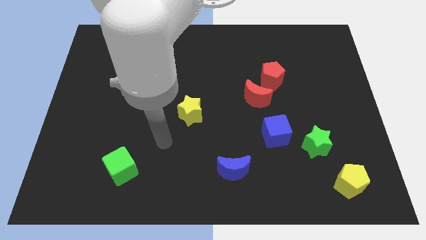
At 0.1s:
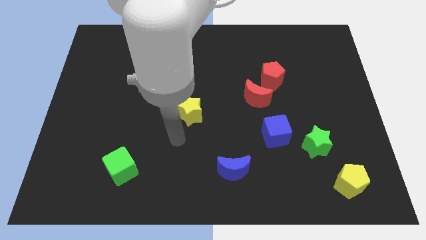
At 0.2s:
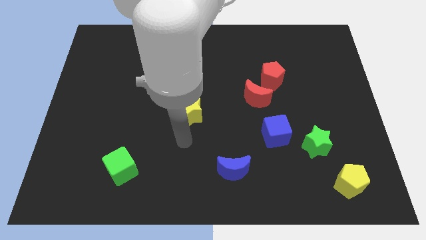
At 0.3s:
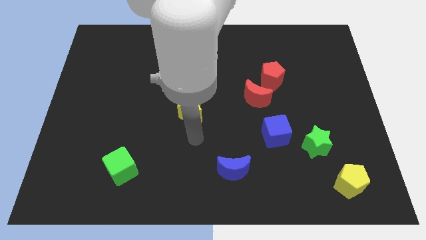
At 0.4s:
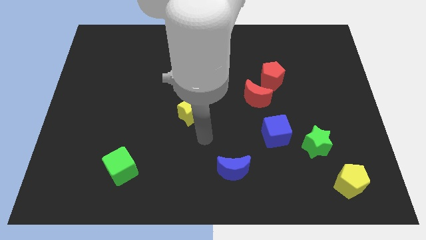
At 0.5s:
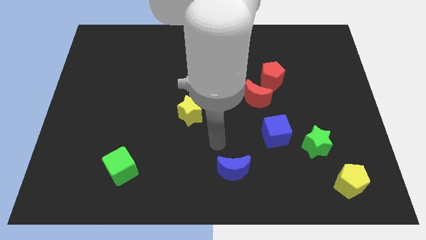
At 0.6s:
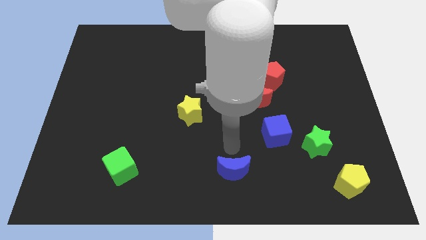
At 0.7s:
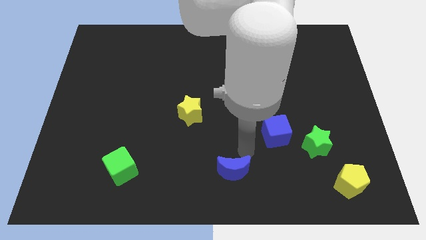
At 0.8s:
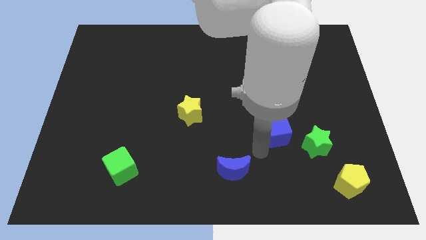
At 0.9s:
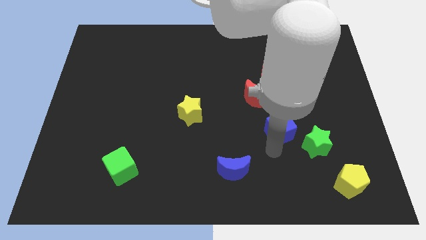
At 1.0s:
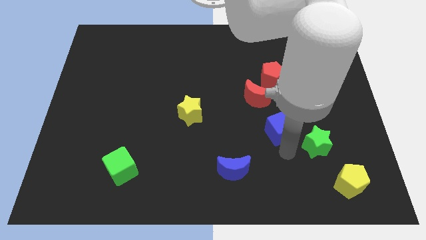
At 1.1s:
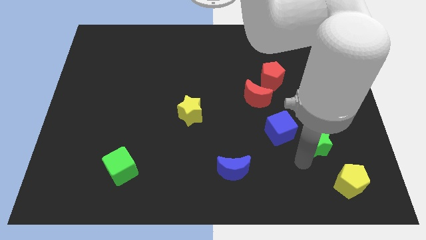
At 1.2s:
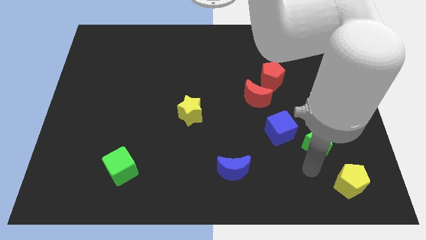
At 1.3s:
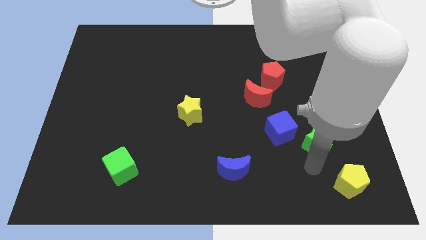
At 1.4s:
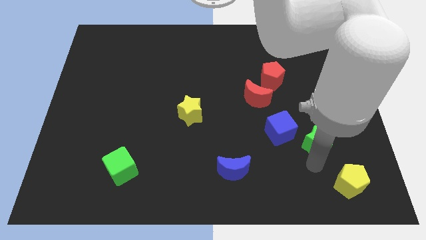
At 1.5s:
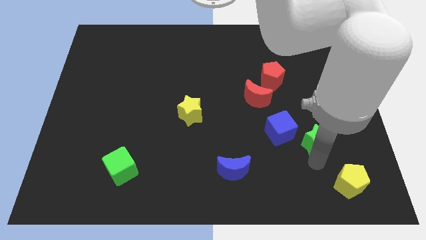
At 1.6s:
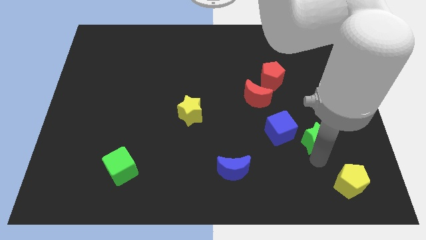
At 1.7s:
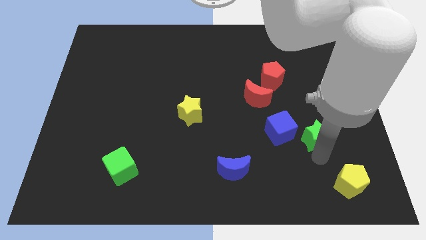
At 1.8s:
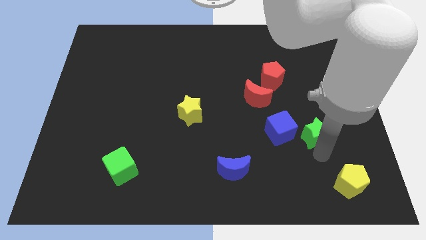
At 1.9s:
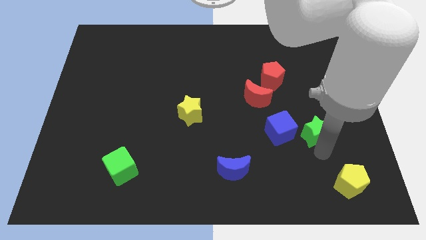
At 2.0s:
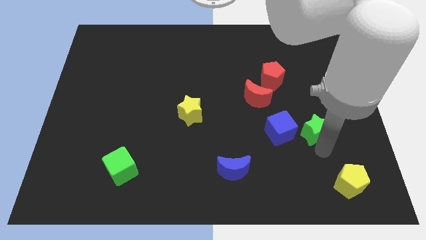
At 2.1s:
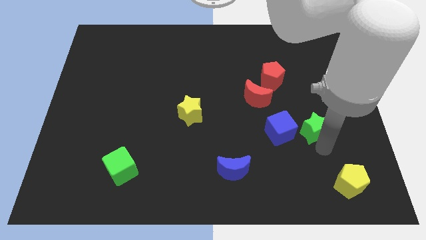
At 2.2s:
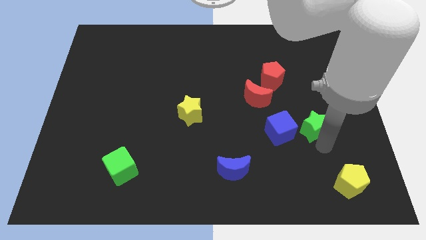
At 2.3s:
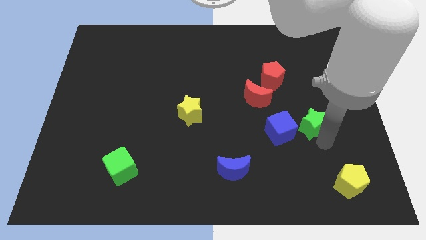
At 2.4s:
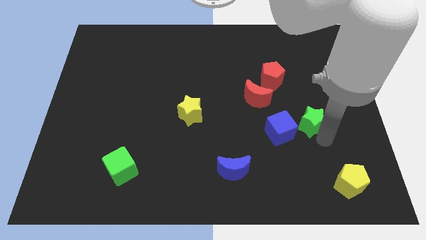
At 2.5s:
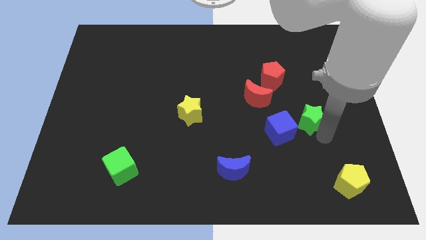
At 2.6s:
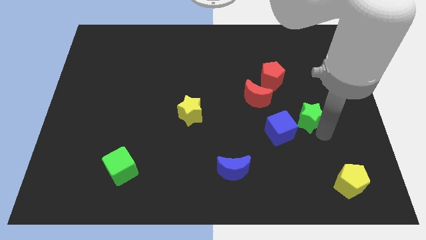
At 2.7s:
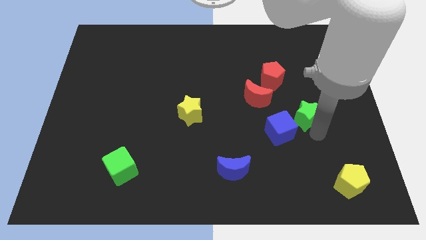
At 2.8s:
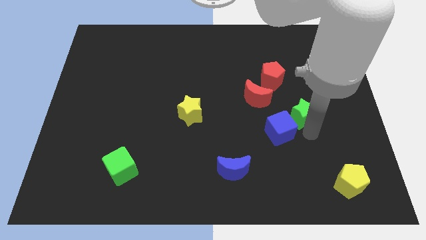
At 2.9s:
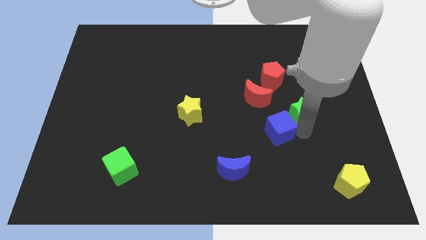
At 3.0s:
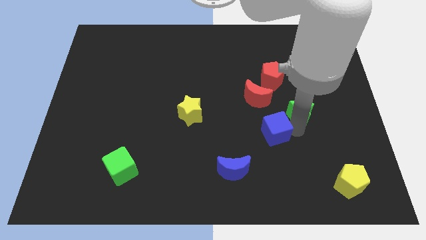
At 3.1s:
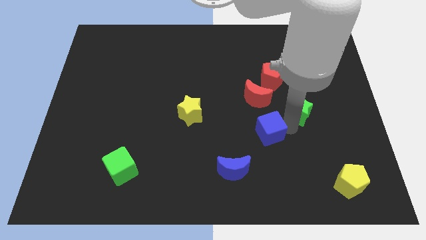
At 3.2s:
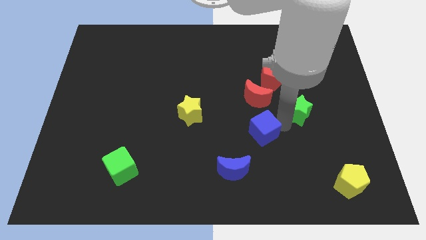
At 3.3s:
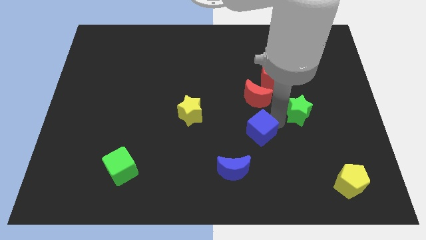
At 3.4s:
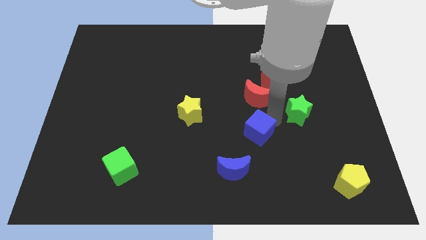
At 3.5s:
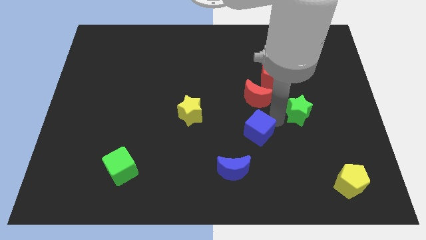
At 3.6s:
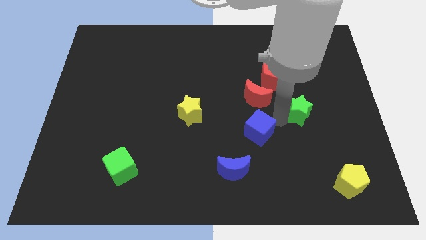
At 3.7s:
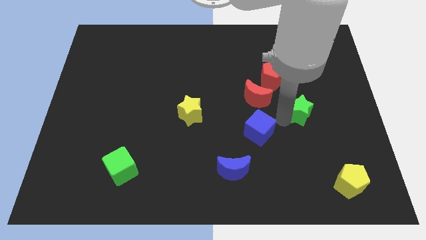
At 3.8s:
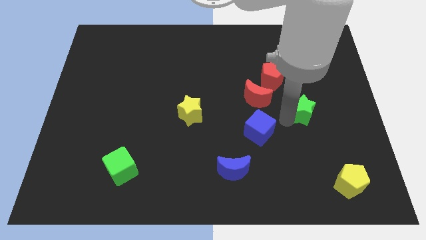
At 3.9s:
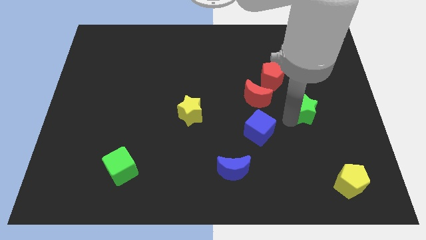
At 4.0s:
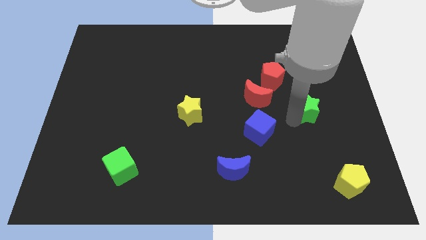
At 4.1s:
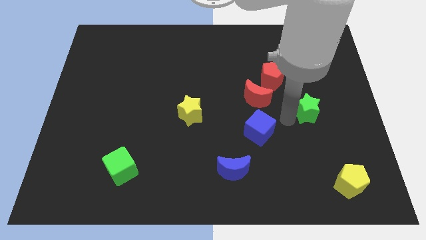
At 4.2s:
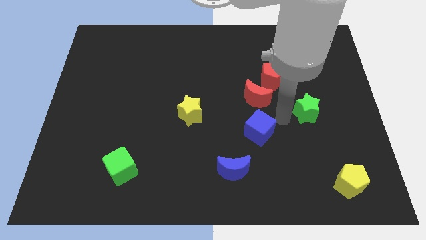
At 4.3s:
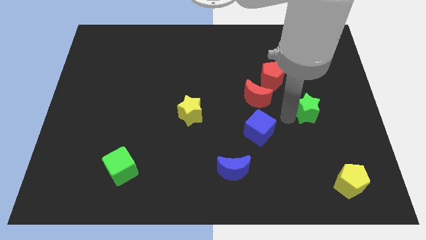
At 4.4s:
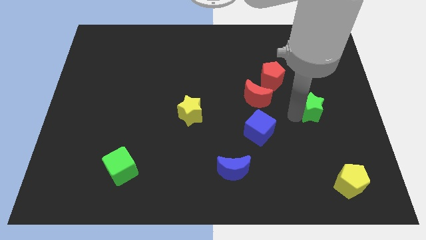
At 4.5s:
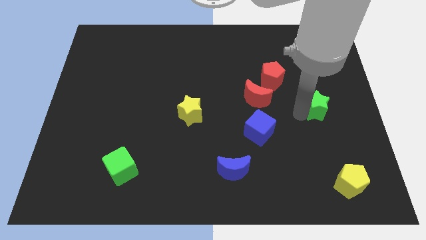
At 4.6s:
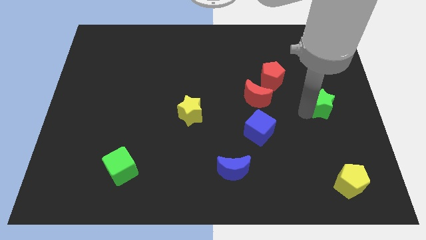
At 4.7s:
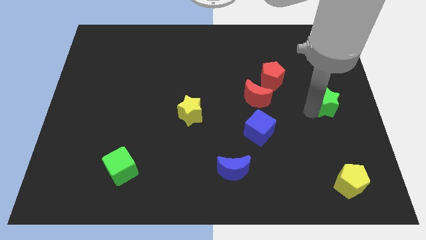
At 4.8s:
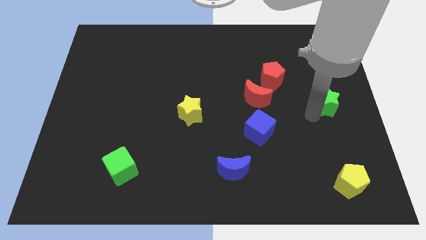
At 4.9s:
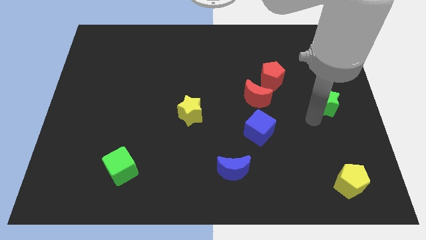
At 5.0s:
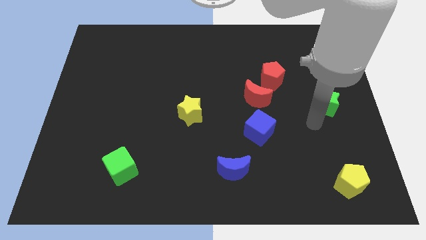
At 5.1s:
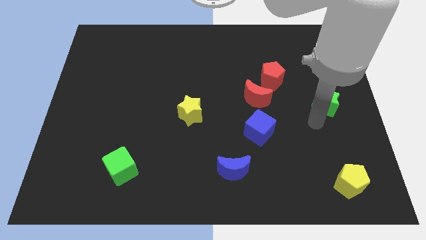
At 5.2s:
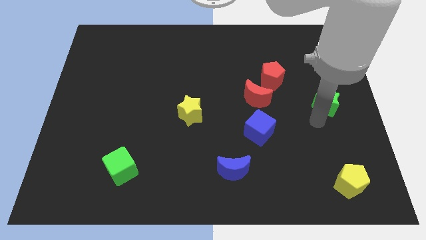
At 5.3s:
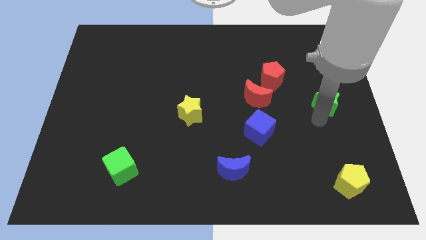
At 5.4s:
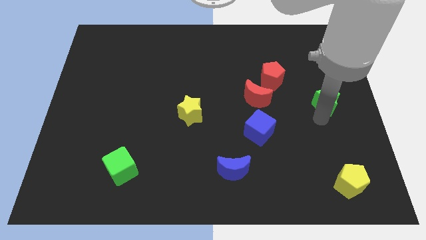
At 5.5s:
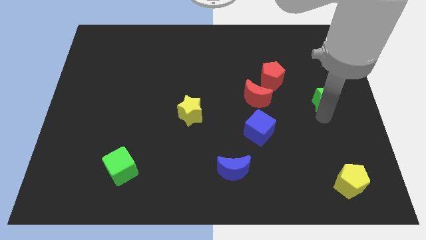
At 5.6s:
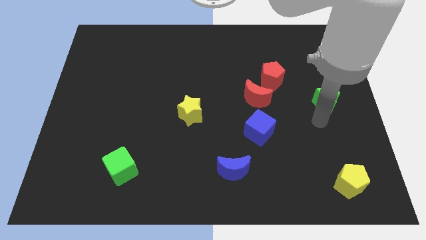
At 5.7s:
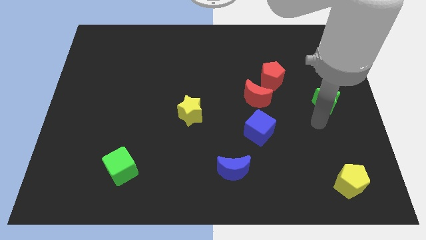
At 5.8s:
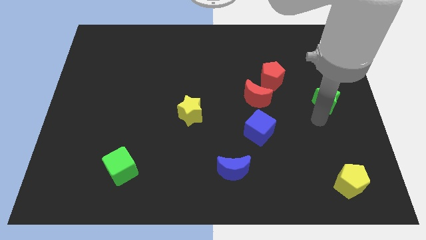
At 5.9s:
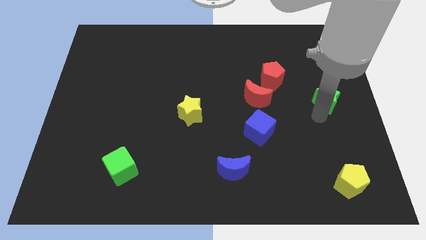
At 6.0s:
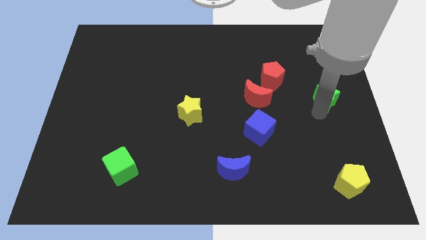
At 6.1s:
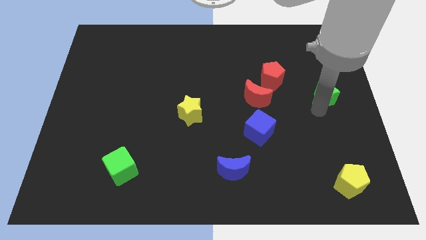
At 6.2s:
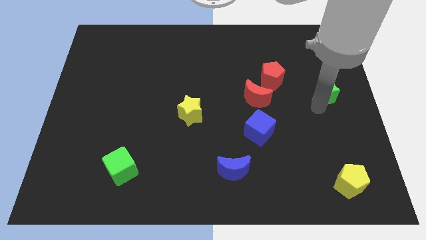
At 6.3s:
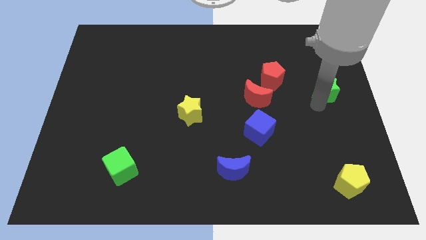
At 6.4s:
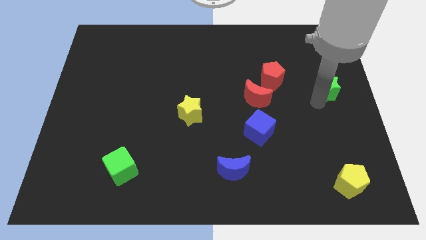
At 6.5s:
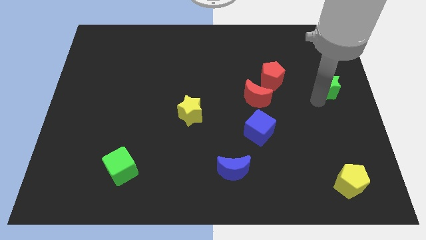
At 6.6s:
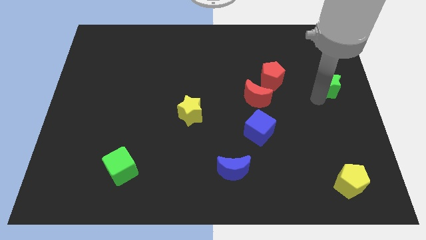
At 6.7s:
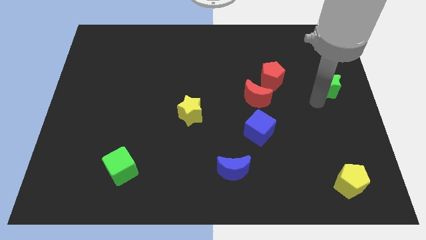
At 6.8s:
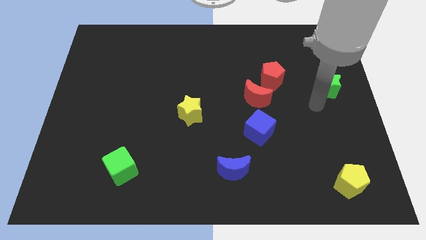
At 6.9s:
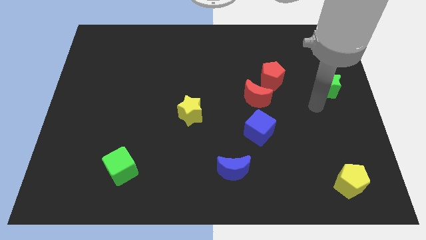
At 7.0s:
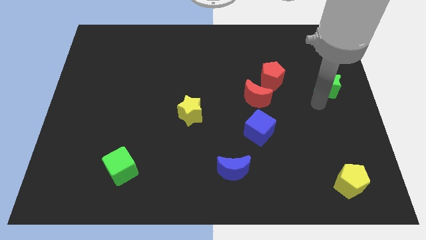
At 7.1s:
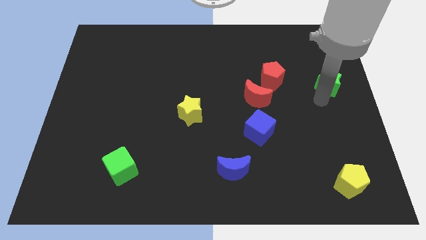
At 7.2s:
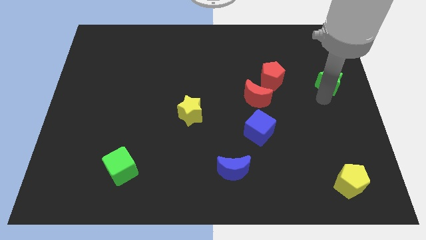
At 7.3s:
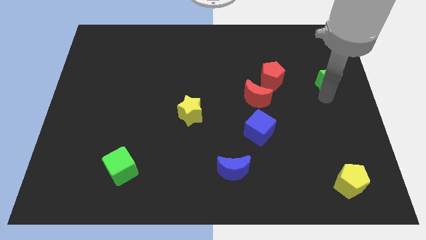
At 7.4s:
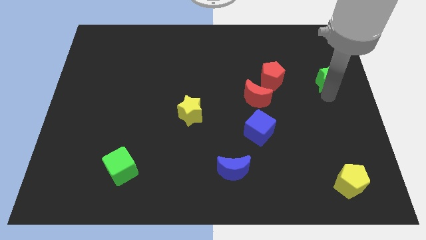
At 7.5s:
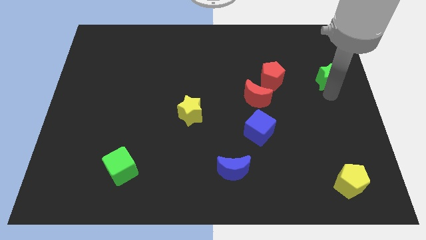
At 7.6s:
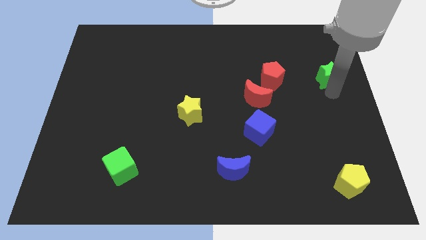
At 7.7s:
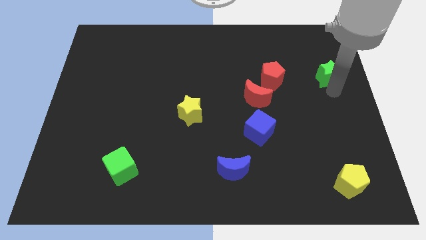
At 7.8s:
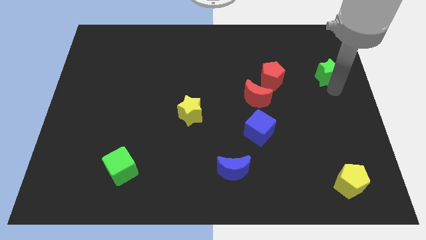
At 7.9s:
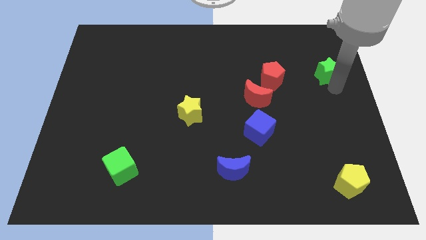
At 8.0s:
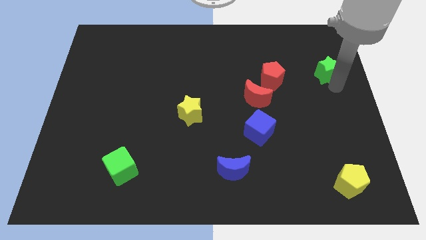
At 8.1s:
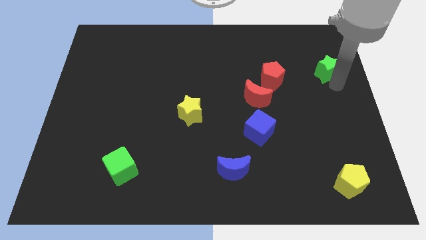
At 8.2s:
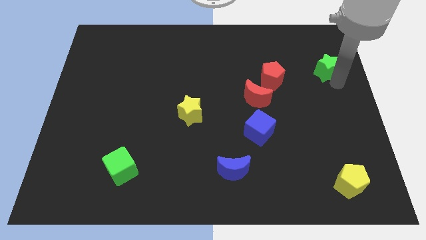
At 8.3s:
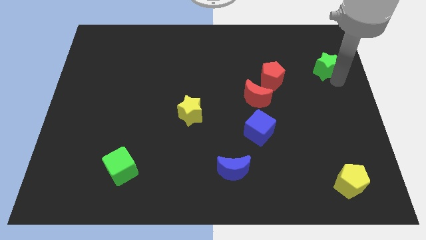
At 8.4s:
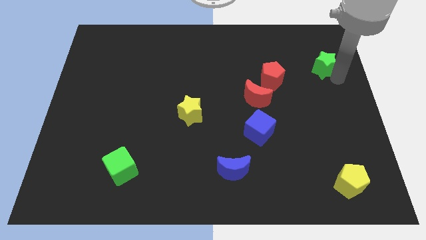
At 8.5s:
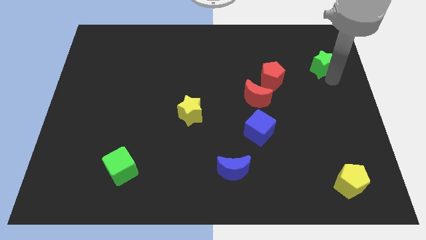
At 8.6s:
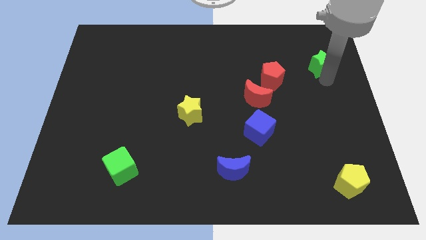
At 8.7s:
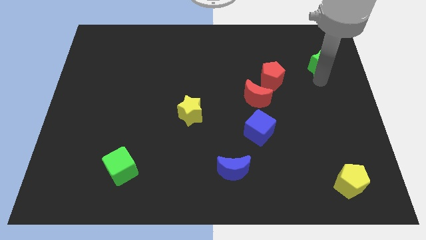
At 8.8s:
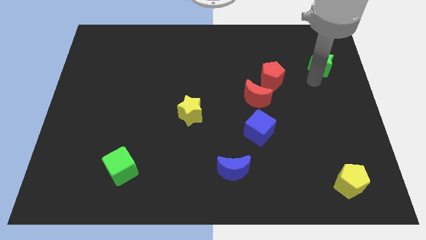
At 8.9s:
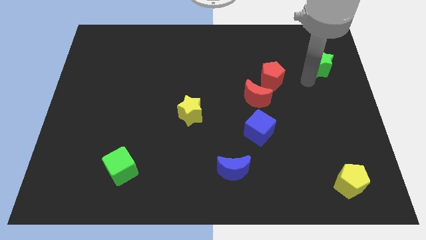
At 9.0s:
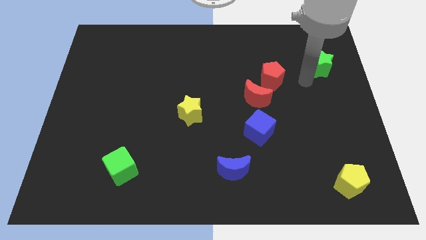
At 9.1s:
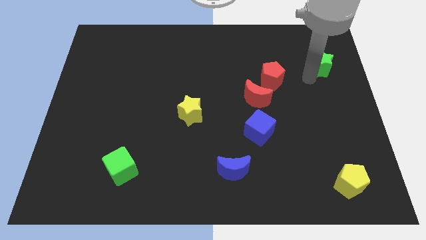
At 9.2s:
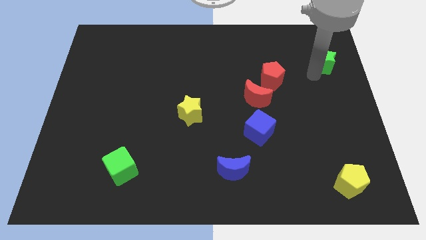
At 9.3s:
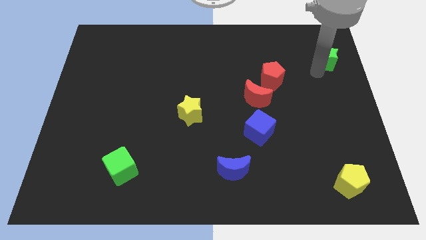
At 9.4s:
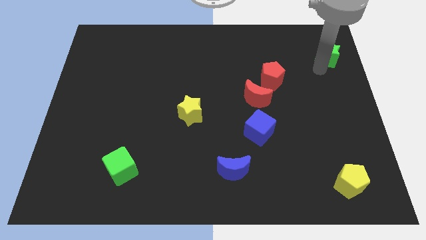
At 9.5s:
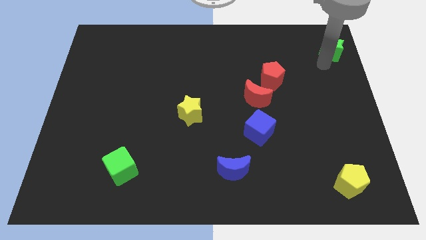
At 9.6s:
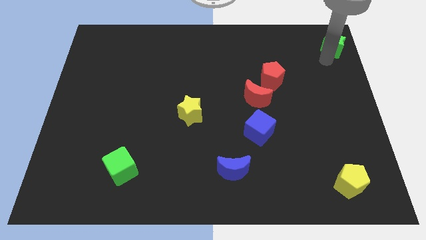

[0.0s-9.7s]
push the green star to the upper right corner
